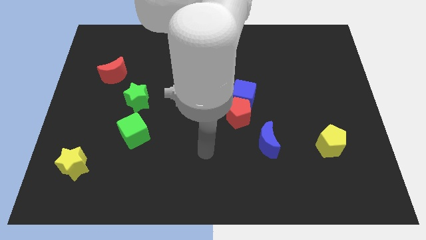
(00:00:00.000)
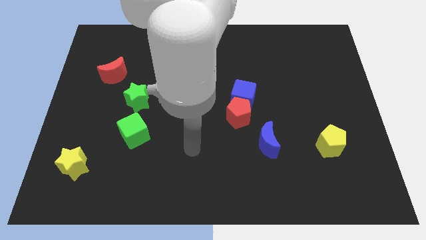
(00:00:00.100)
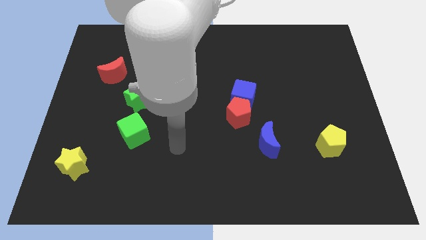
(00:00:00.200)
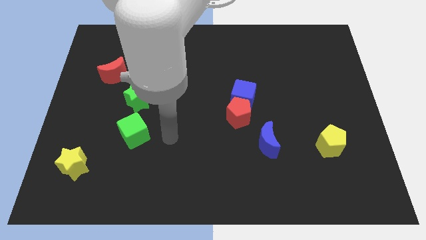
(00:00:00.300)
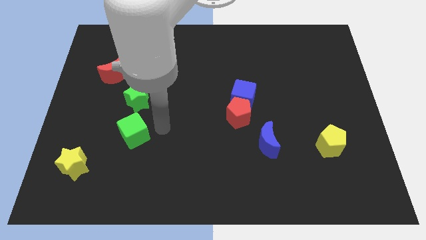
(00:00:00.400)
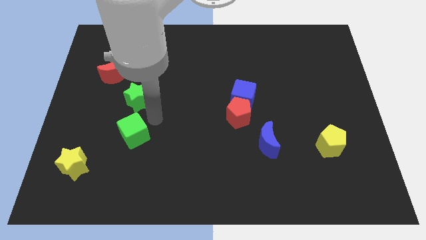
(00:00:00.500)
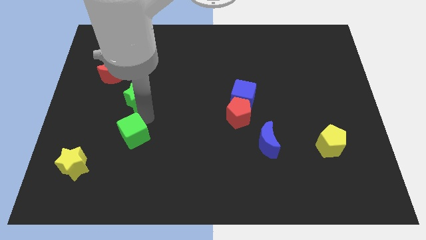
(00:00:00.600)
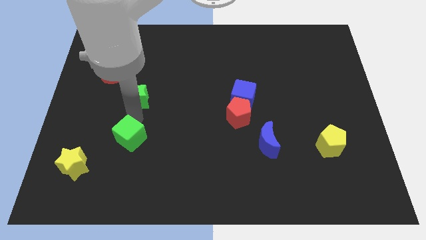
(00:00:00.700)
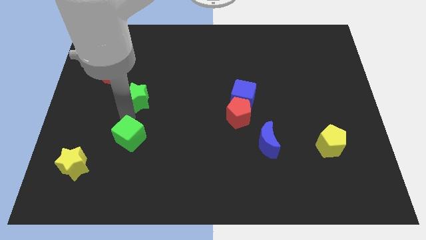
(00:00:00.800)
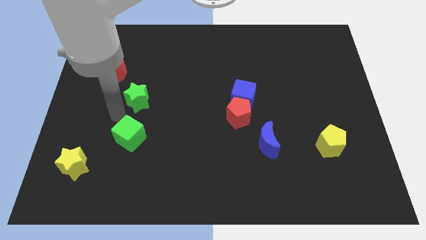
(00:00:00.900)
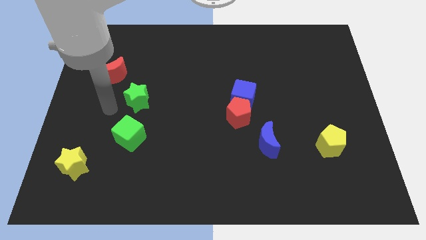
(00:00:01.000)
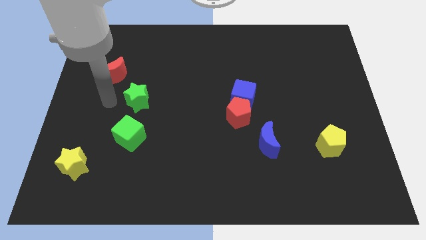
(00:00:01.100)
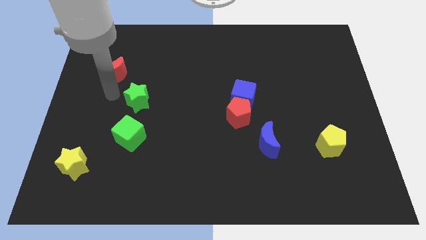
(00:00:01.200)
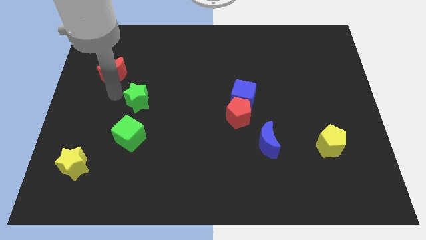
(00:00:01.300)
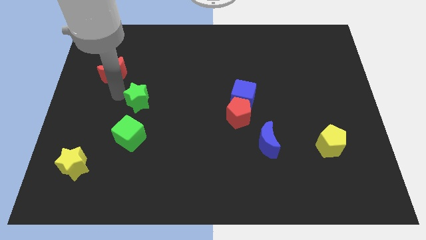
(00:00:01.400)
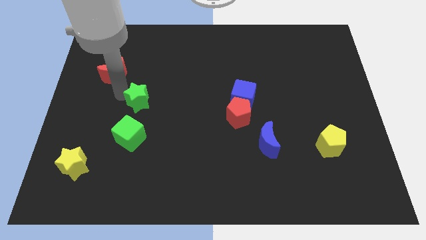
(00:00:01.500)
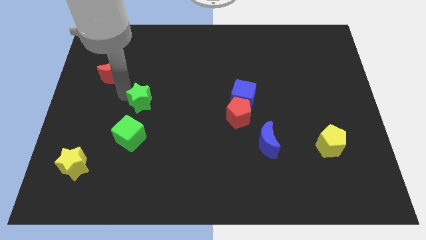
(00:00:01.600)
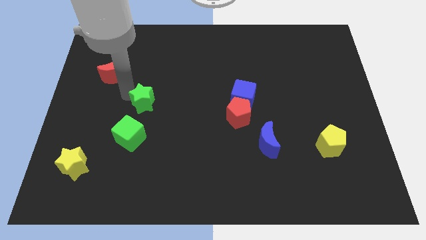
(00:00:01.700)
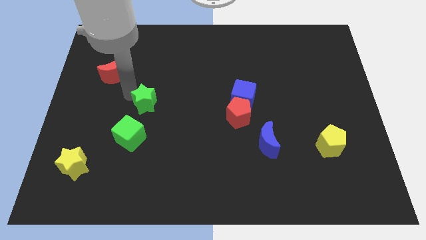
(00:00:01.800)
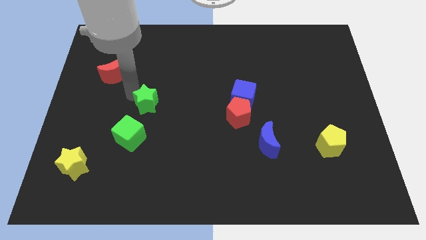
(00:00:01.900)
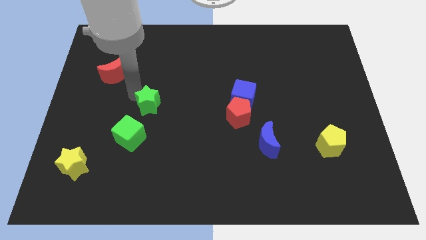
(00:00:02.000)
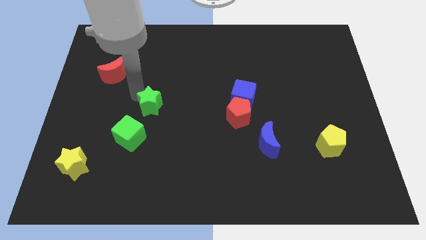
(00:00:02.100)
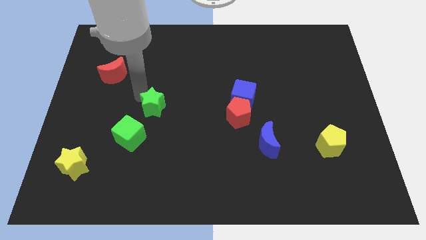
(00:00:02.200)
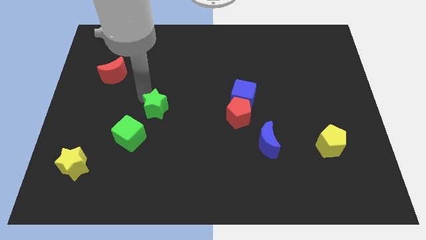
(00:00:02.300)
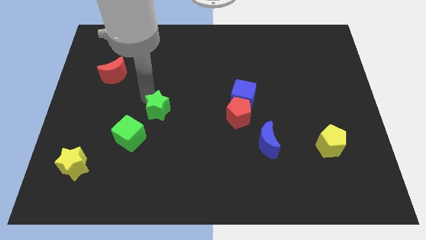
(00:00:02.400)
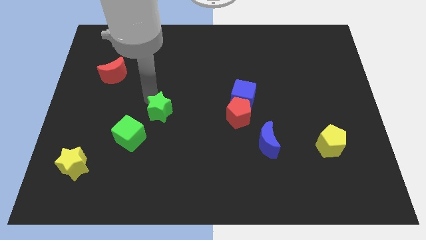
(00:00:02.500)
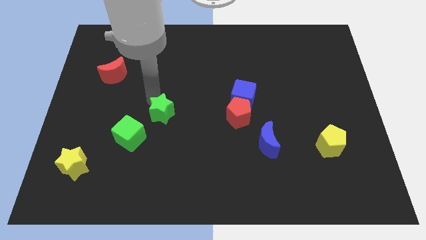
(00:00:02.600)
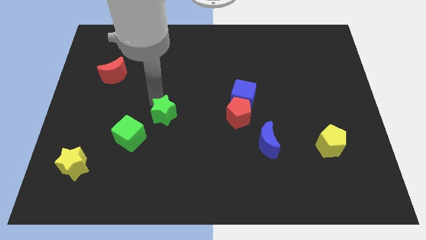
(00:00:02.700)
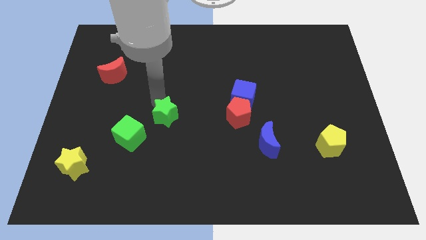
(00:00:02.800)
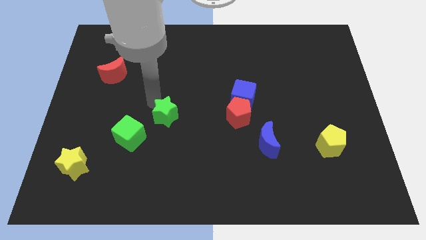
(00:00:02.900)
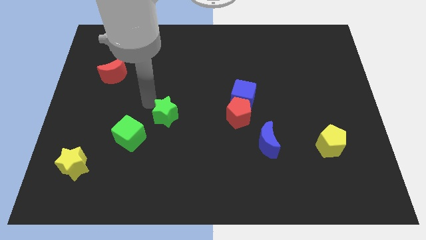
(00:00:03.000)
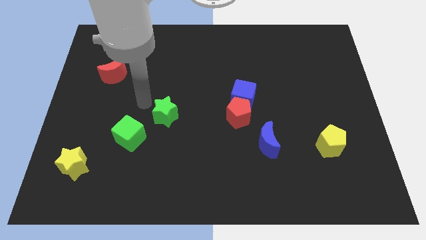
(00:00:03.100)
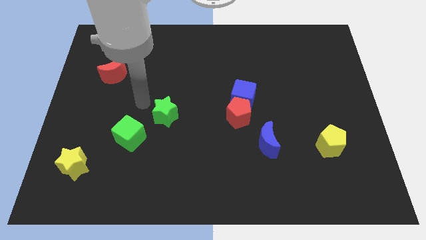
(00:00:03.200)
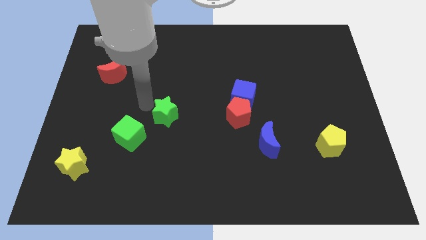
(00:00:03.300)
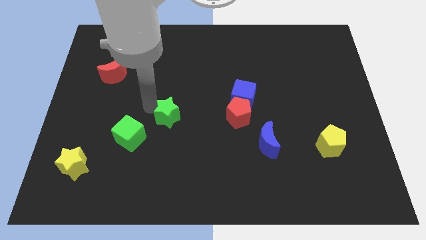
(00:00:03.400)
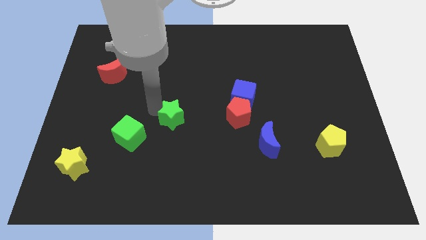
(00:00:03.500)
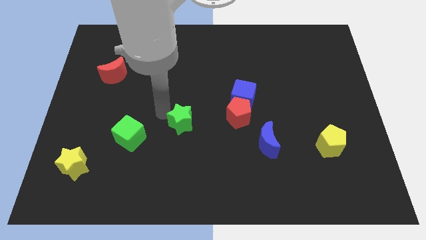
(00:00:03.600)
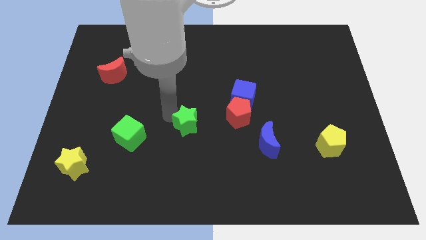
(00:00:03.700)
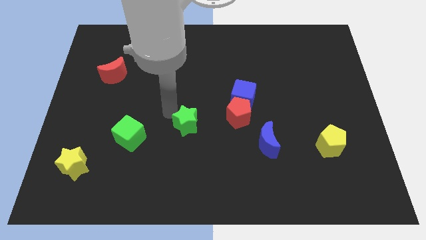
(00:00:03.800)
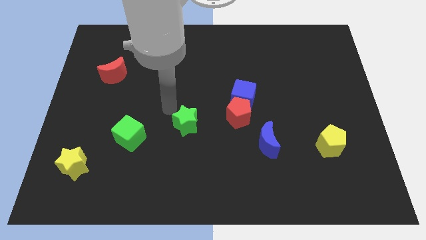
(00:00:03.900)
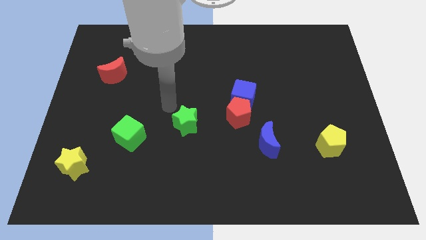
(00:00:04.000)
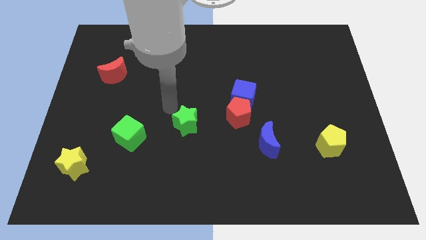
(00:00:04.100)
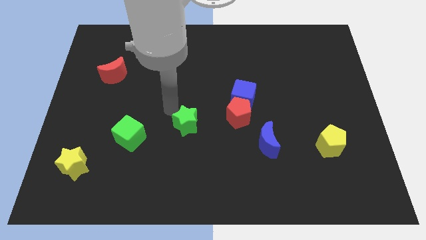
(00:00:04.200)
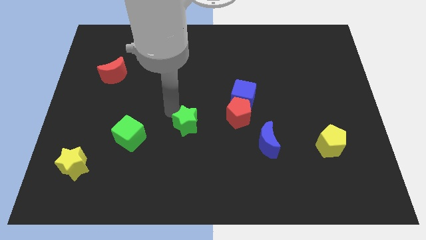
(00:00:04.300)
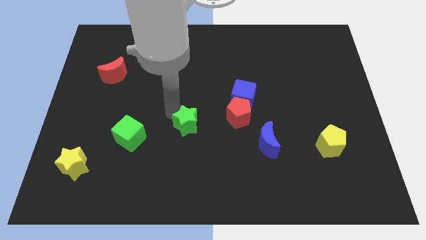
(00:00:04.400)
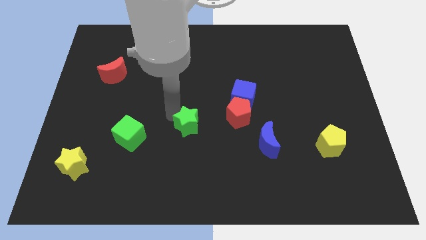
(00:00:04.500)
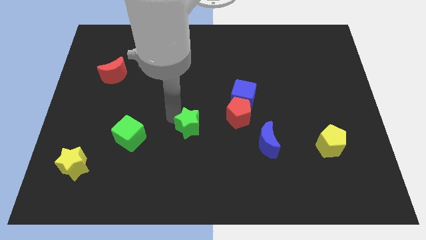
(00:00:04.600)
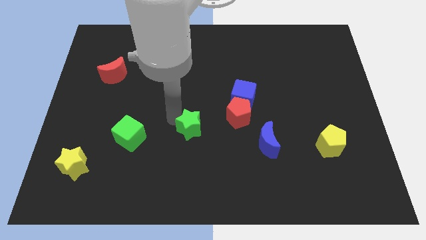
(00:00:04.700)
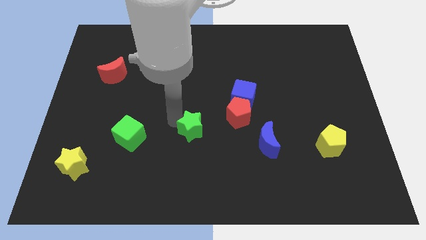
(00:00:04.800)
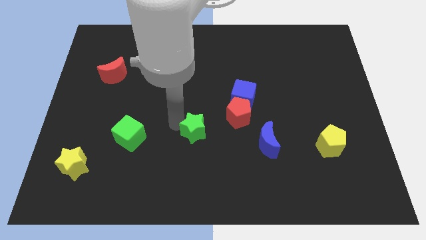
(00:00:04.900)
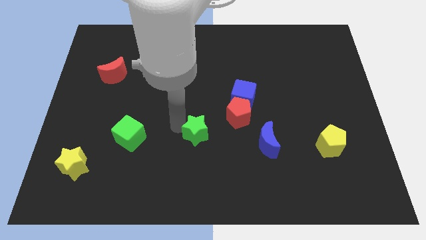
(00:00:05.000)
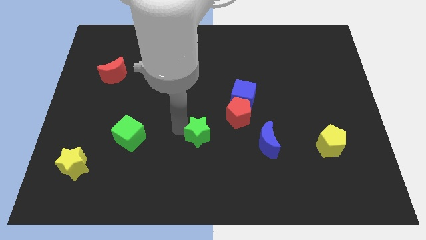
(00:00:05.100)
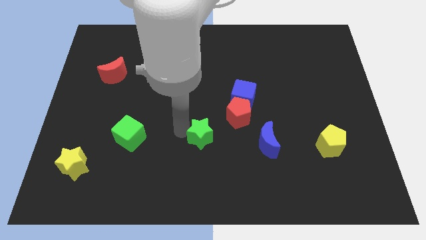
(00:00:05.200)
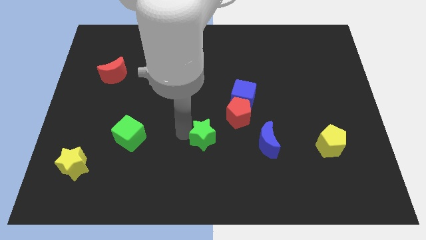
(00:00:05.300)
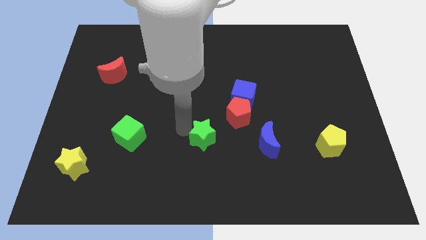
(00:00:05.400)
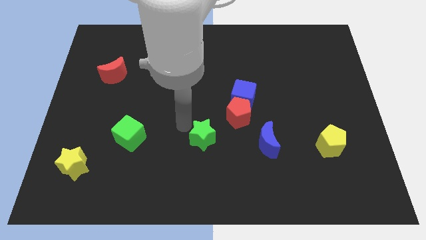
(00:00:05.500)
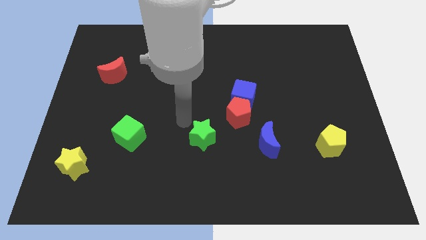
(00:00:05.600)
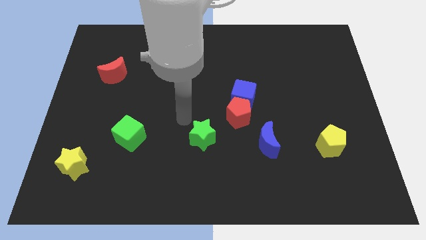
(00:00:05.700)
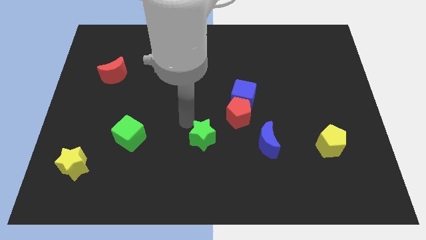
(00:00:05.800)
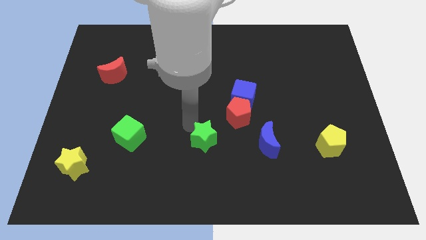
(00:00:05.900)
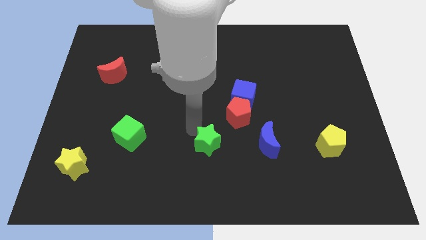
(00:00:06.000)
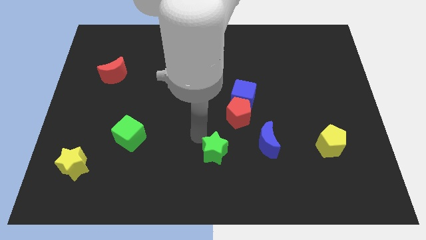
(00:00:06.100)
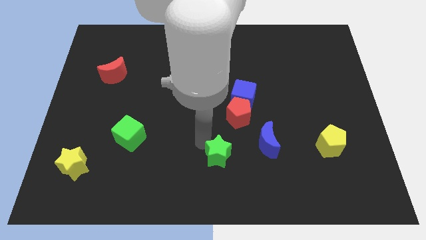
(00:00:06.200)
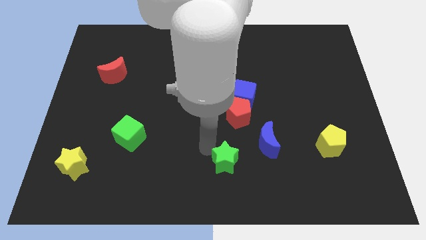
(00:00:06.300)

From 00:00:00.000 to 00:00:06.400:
put the green star to the bottom left of the blue moon
